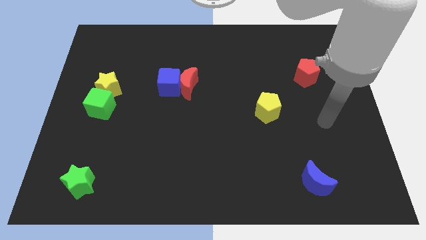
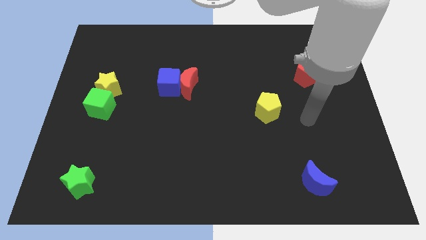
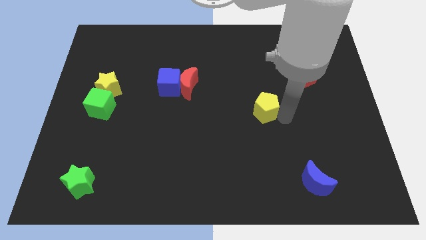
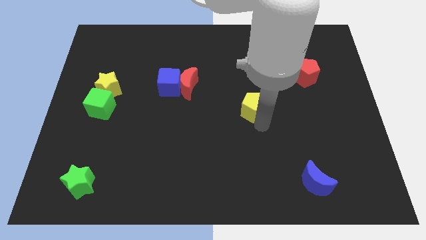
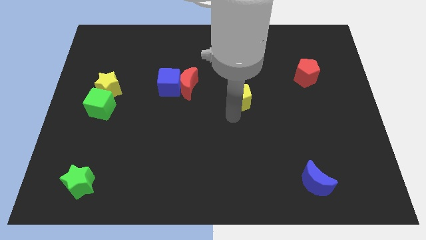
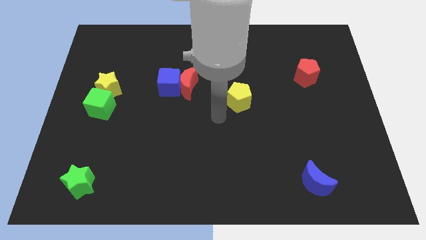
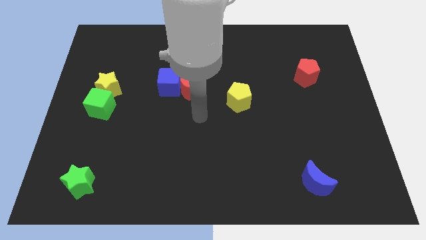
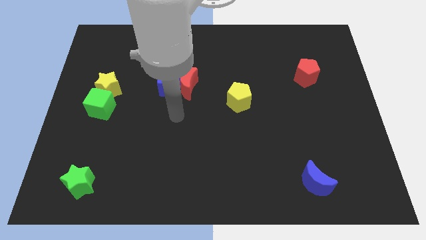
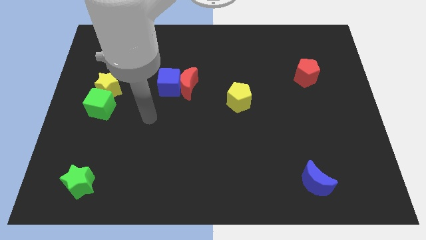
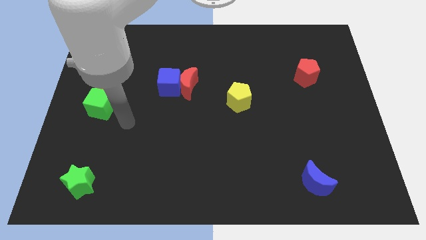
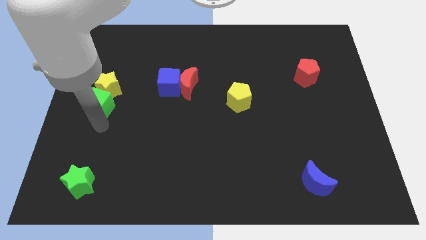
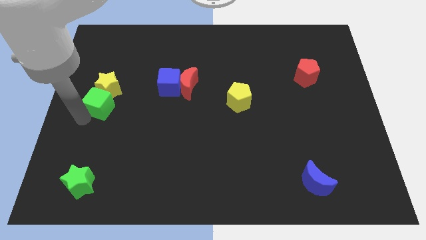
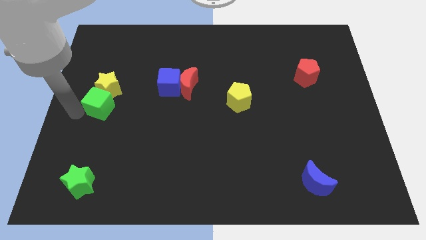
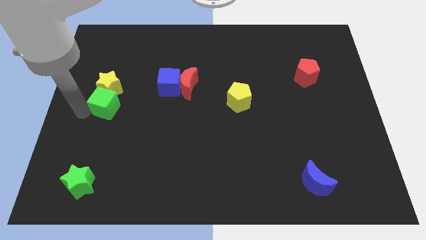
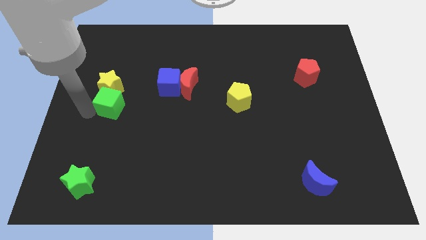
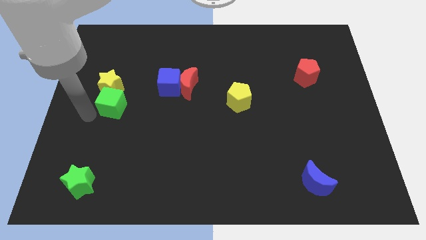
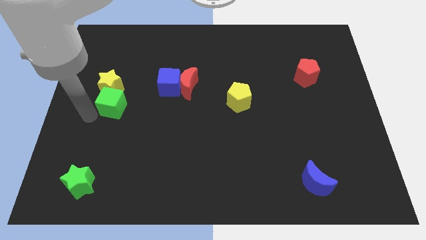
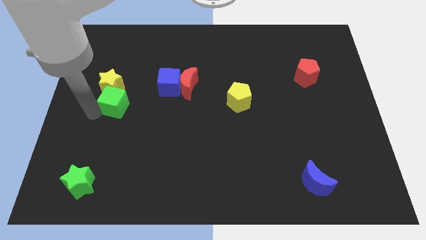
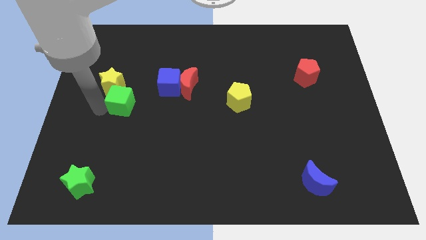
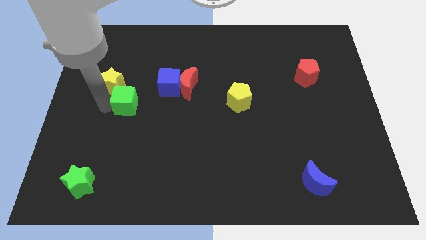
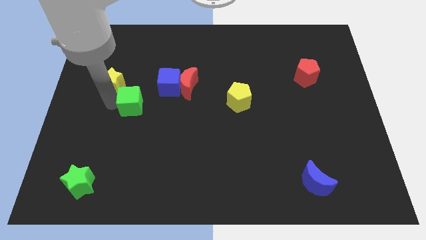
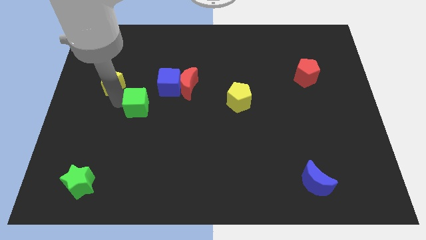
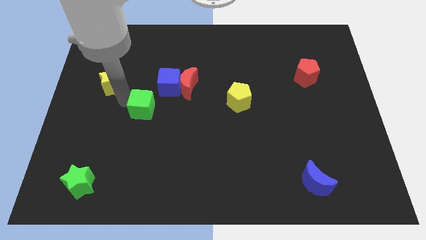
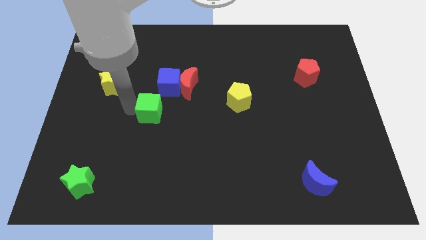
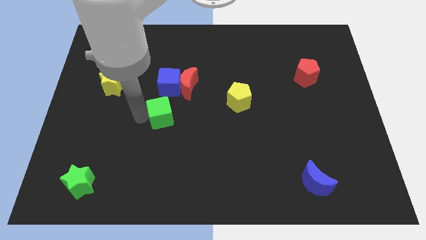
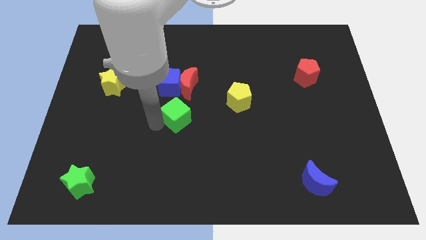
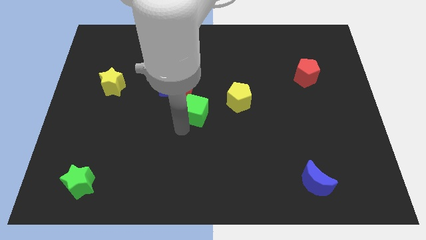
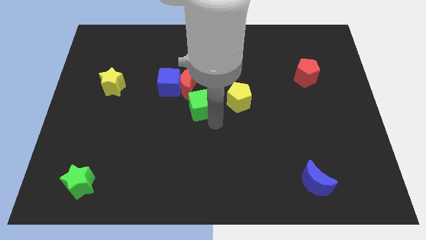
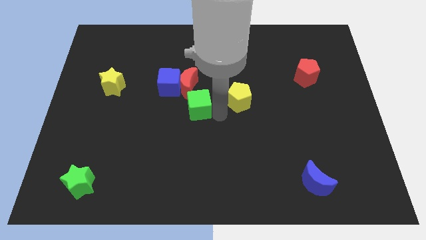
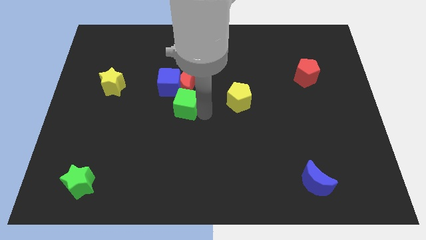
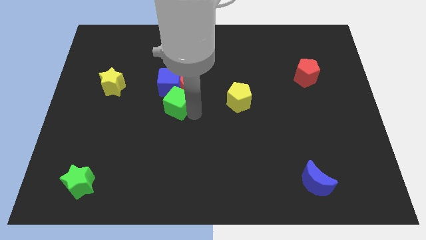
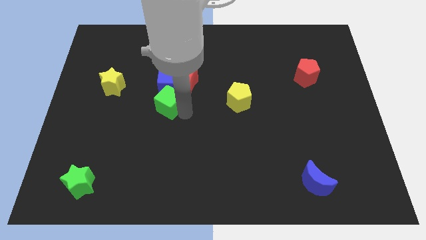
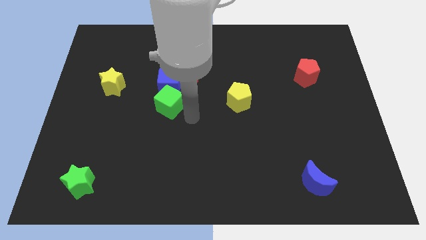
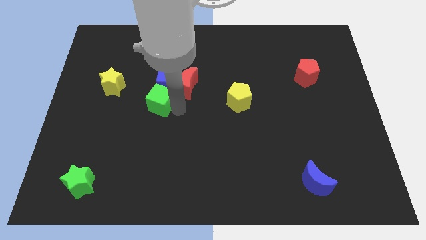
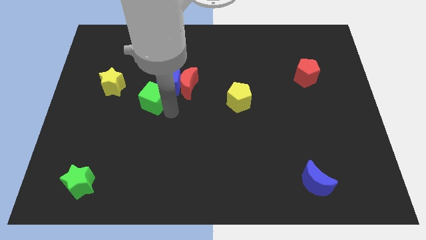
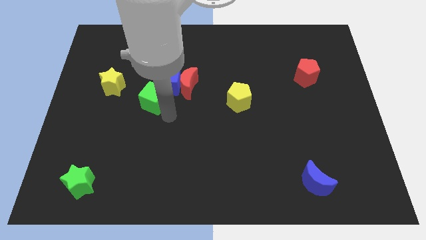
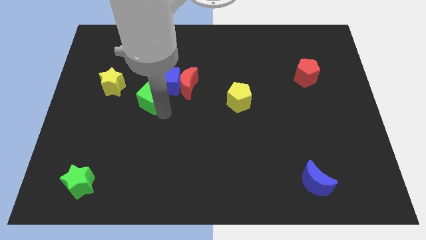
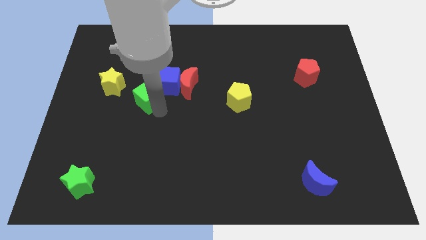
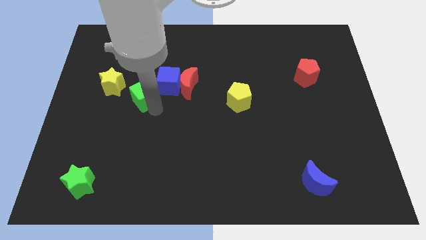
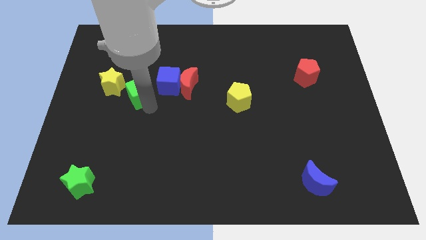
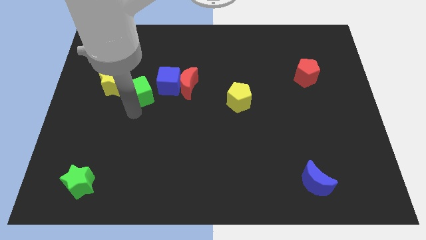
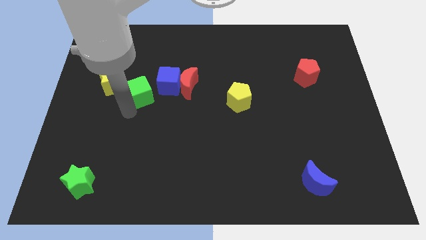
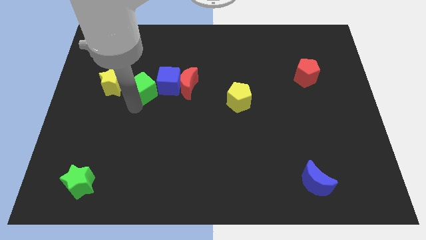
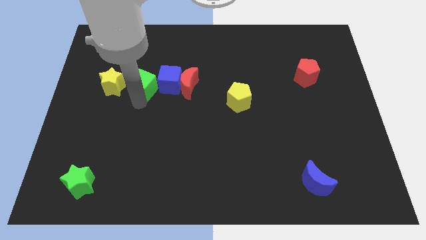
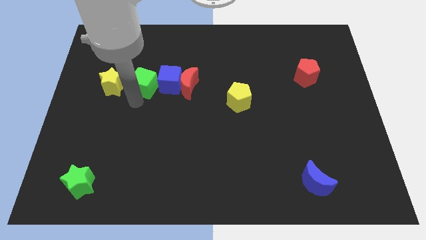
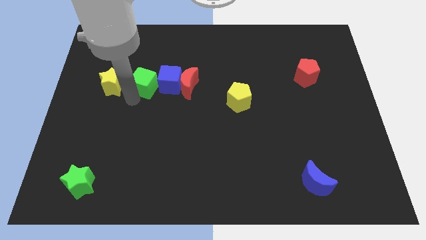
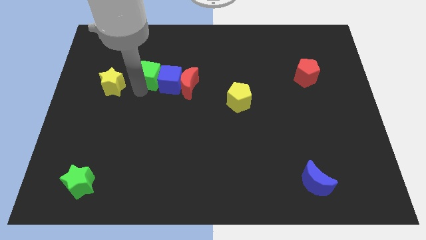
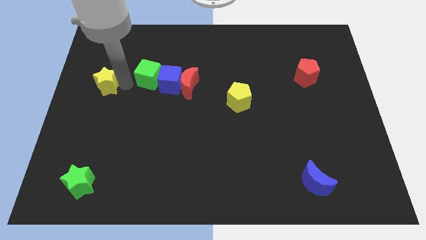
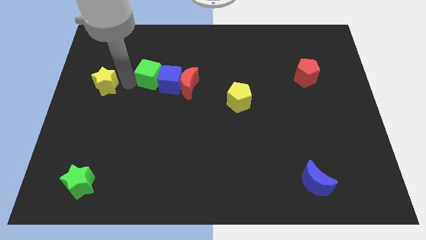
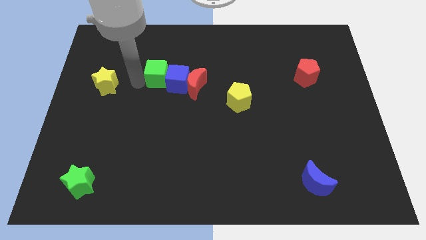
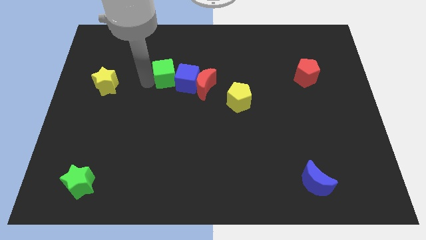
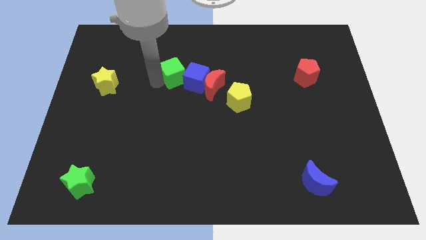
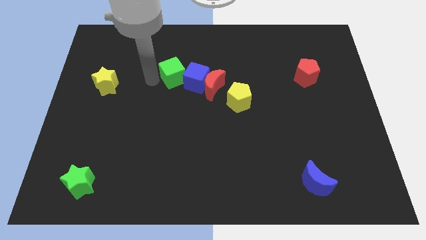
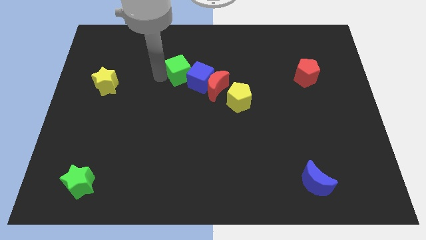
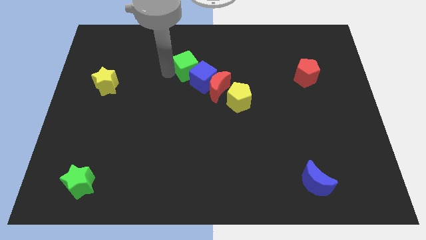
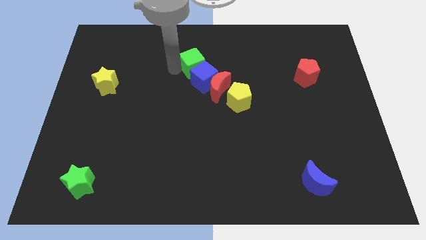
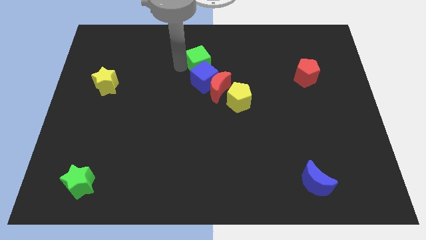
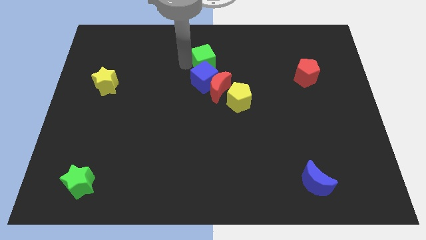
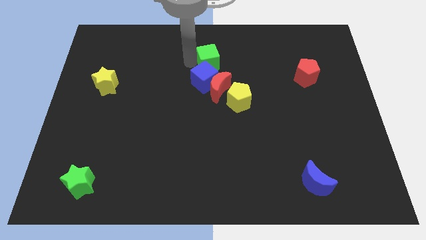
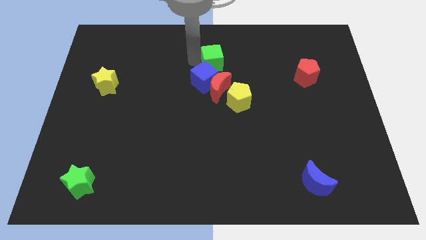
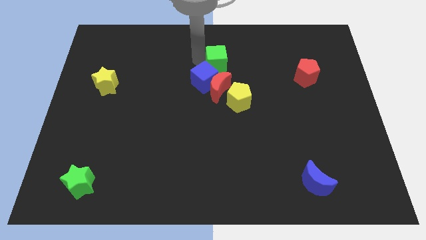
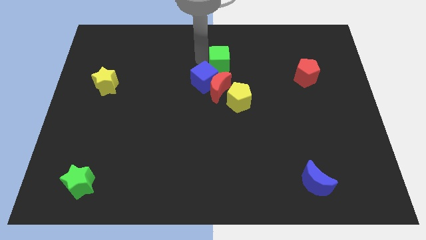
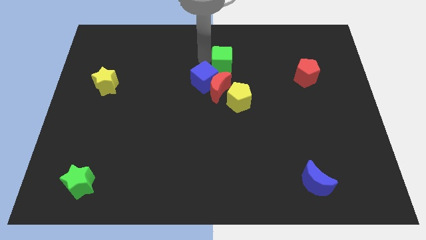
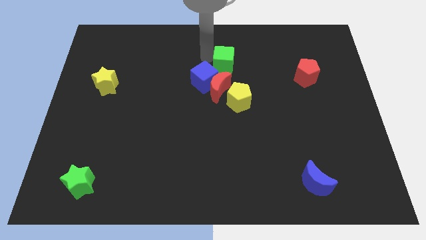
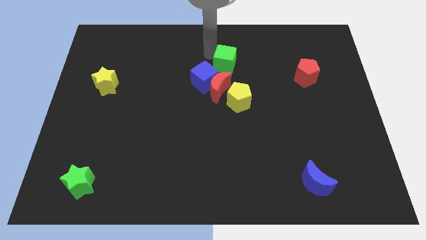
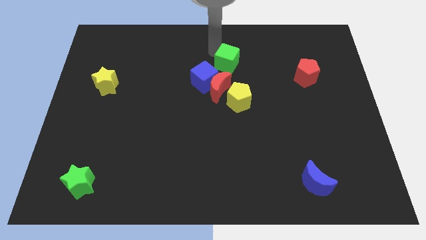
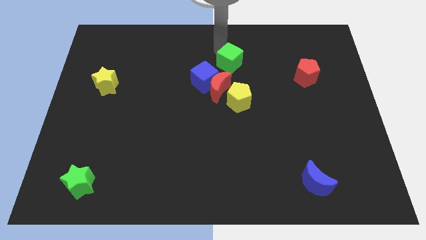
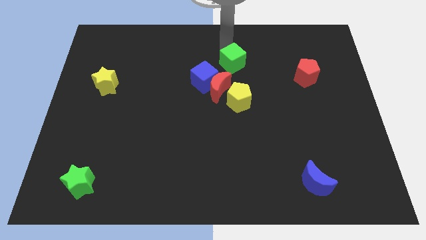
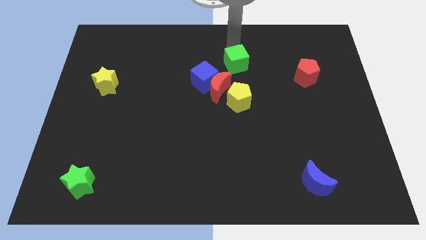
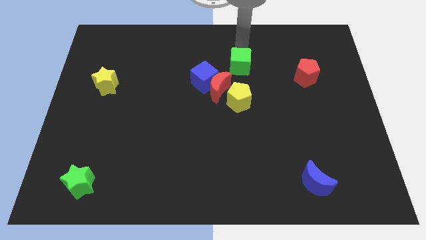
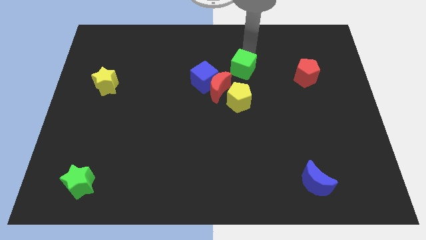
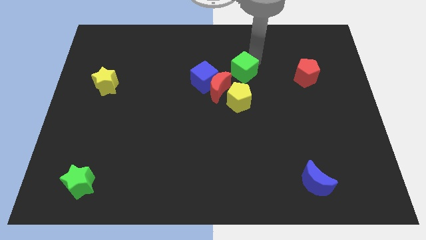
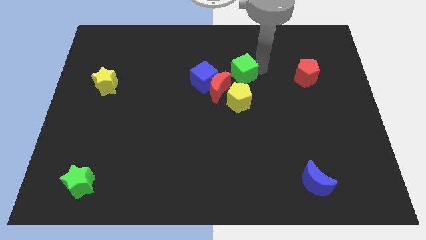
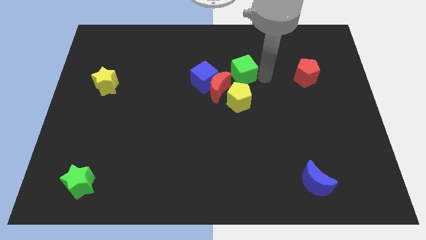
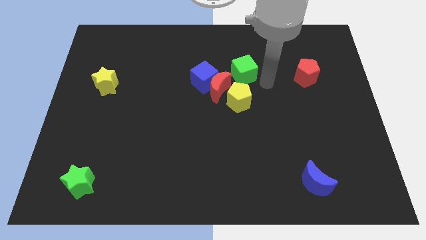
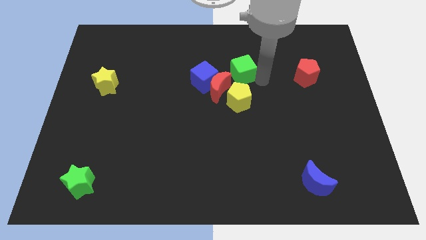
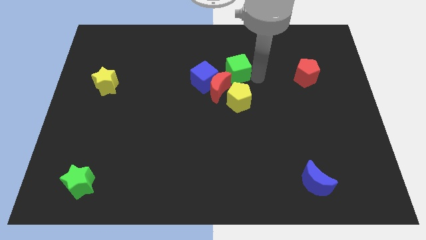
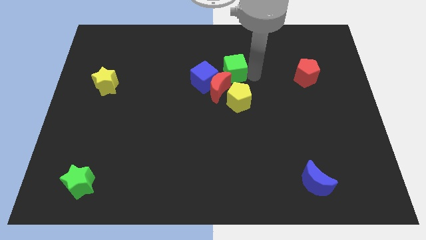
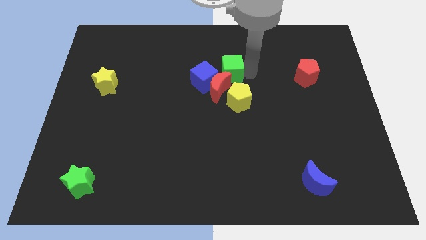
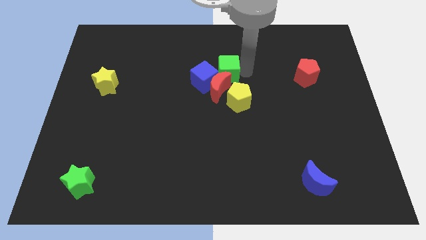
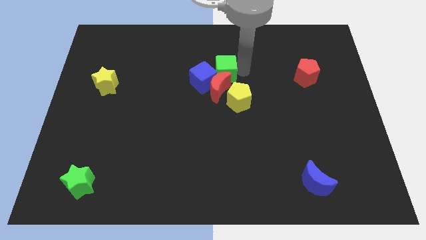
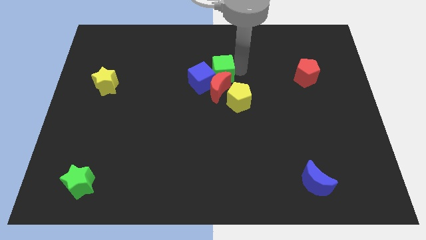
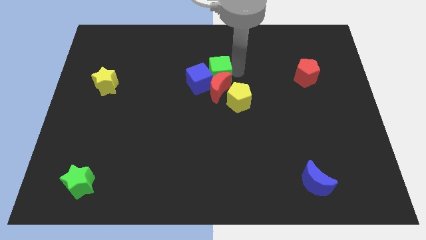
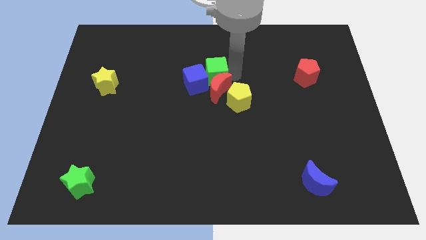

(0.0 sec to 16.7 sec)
put the green cube to the top right side of the blue cube
